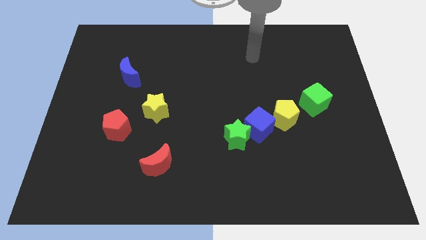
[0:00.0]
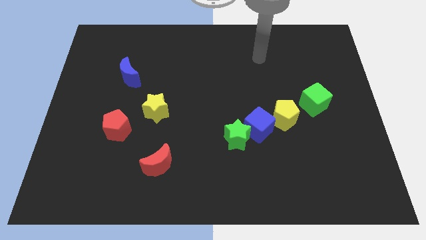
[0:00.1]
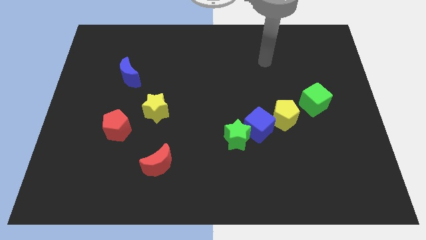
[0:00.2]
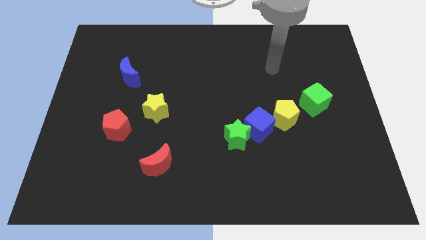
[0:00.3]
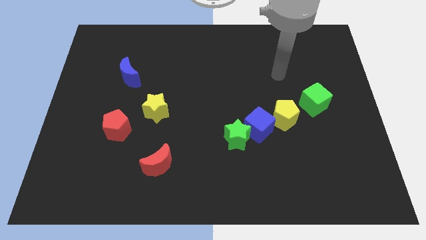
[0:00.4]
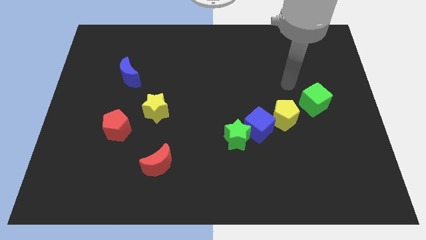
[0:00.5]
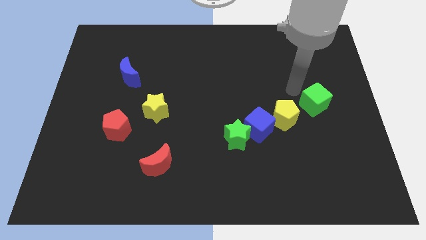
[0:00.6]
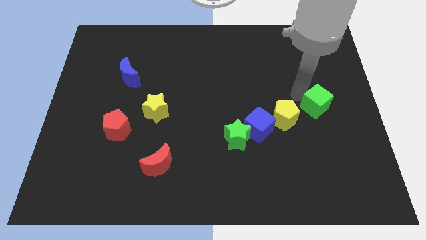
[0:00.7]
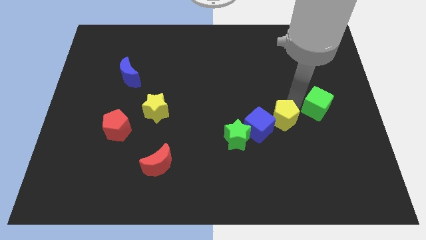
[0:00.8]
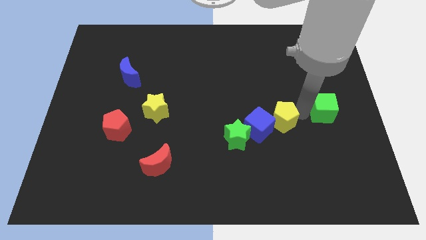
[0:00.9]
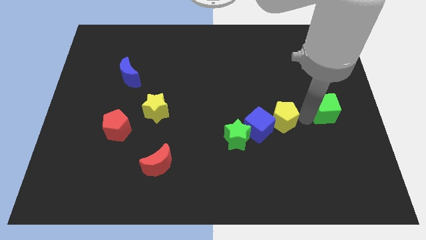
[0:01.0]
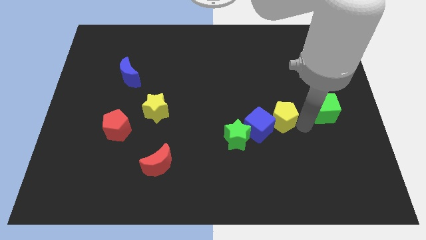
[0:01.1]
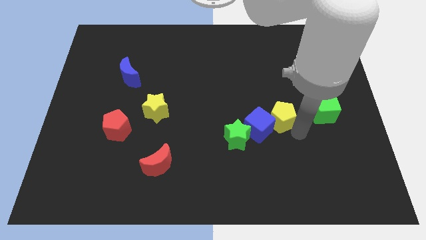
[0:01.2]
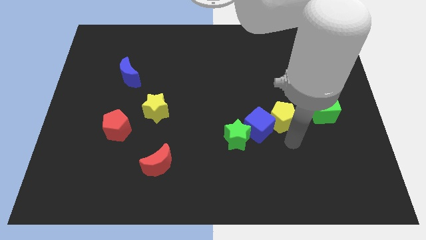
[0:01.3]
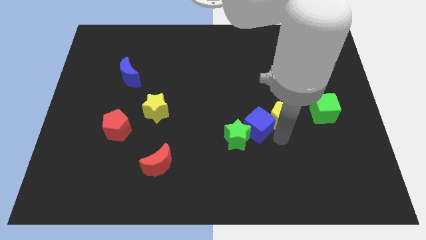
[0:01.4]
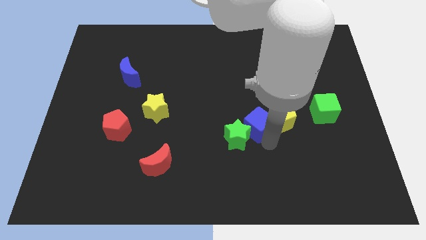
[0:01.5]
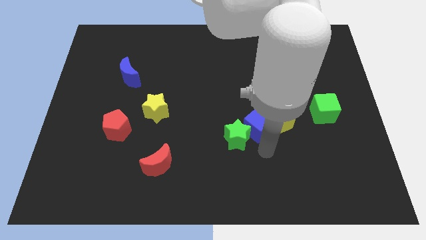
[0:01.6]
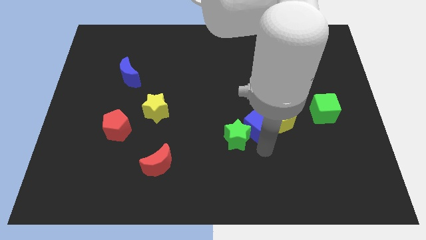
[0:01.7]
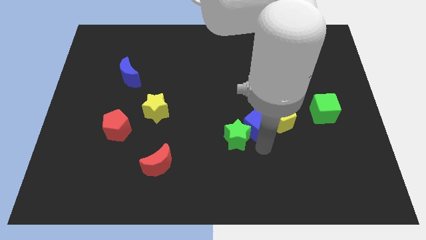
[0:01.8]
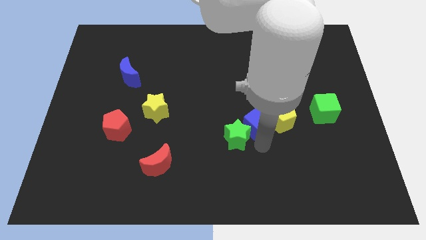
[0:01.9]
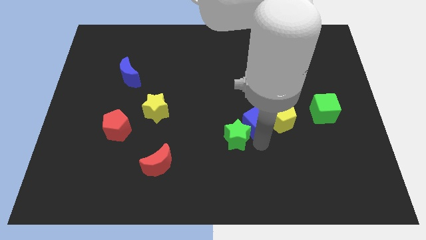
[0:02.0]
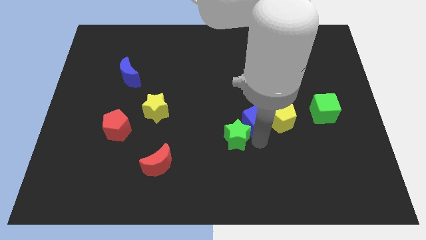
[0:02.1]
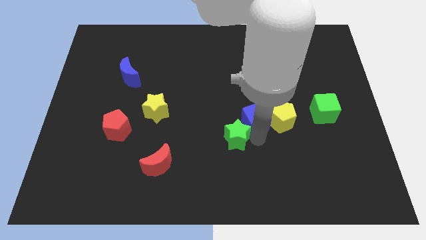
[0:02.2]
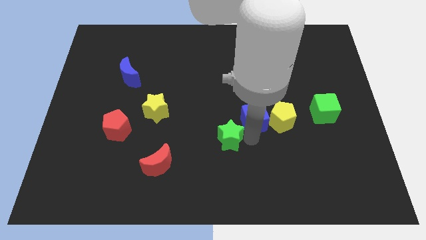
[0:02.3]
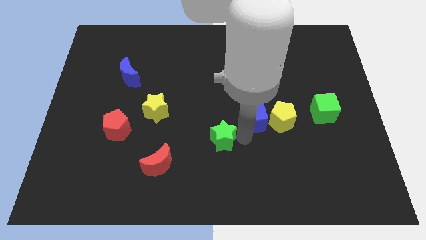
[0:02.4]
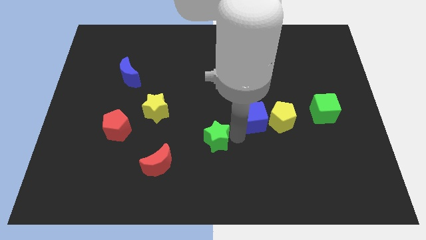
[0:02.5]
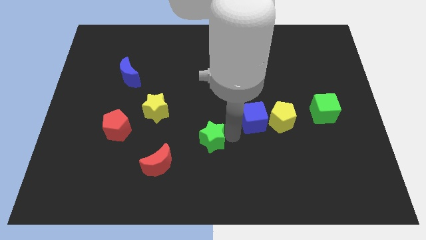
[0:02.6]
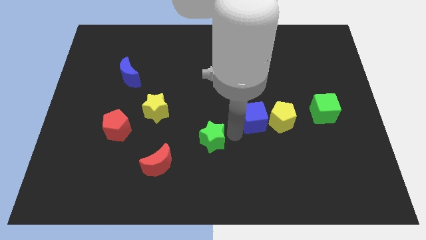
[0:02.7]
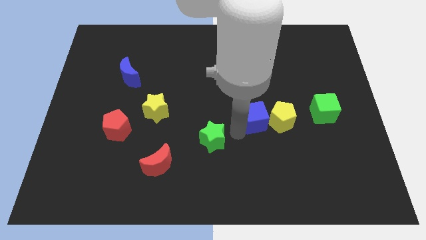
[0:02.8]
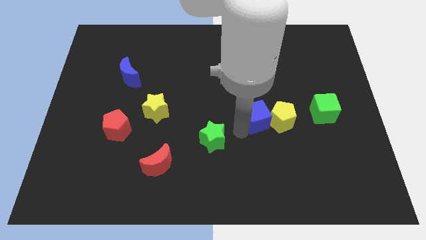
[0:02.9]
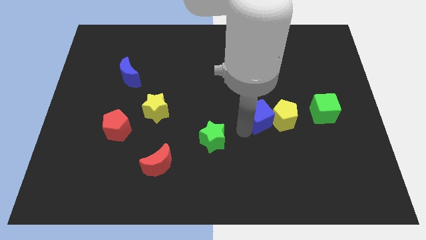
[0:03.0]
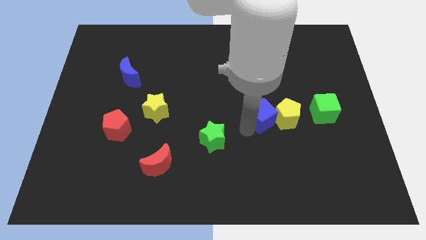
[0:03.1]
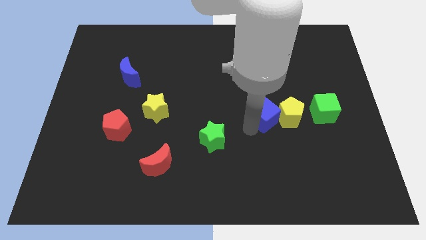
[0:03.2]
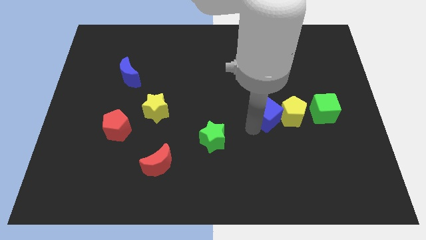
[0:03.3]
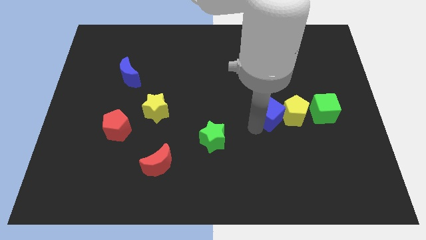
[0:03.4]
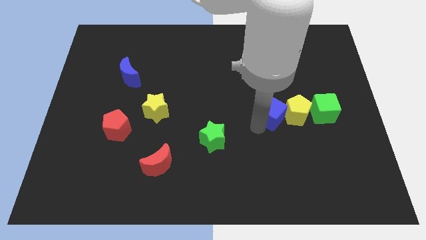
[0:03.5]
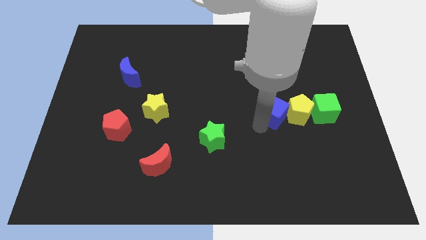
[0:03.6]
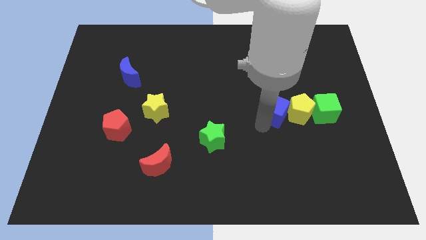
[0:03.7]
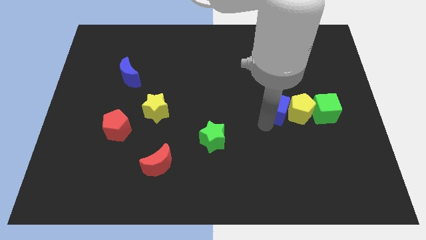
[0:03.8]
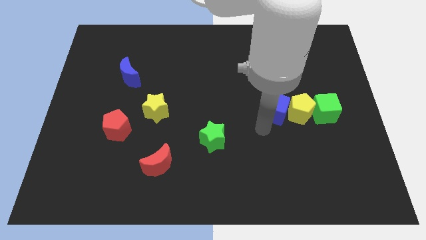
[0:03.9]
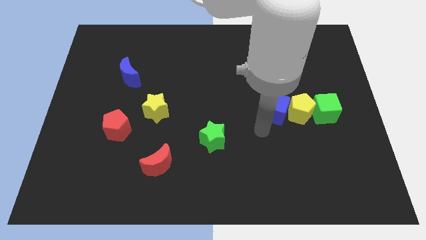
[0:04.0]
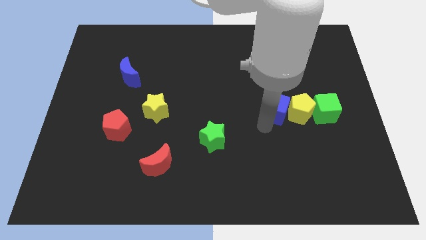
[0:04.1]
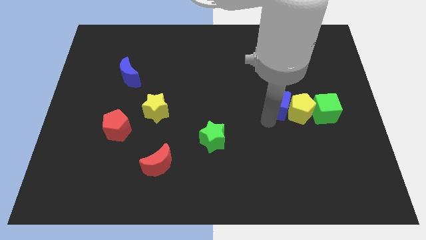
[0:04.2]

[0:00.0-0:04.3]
slide the blue cube up and to the right diagonally a little bit

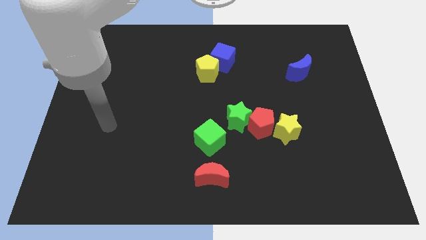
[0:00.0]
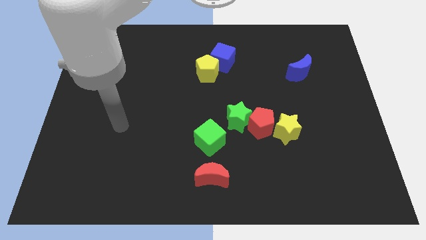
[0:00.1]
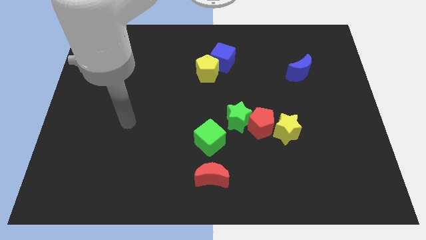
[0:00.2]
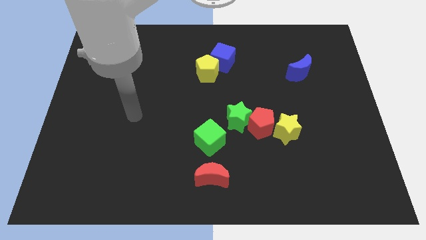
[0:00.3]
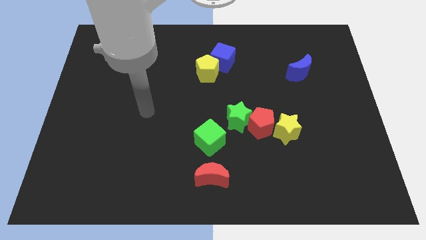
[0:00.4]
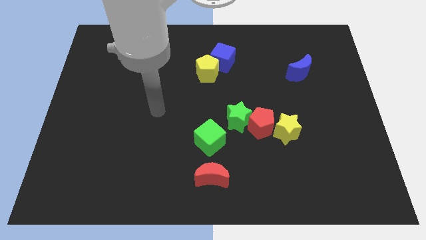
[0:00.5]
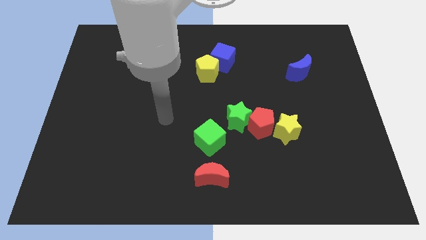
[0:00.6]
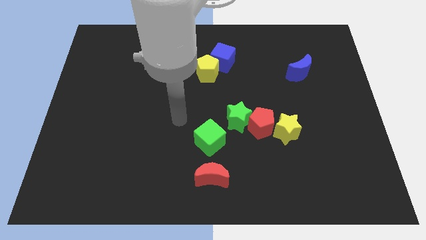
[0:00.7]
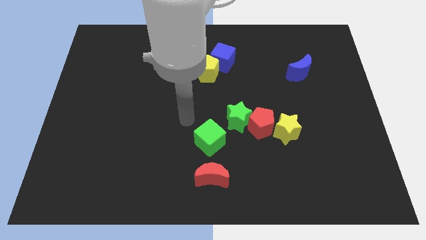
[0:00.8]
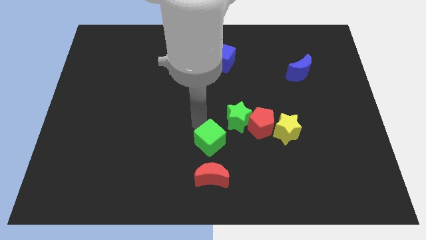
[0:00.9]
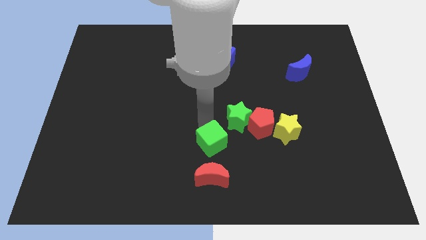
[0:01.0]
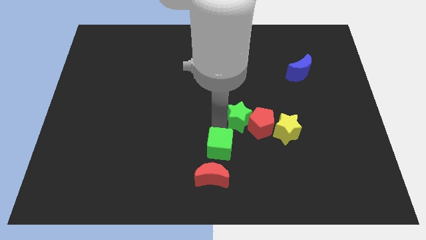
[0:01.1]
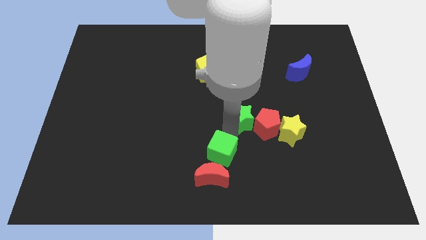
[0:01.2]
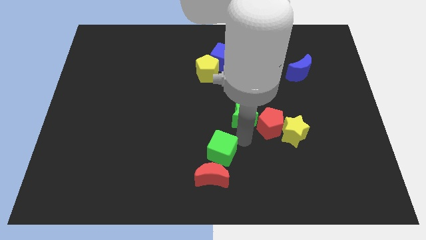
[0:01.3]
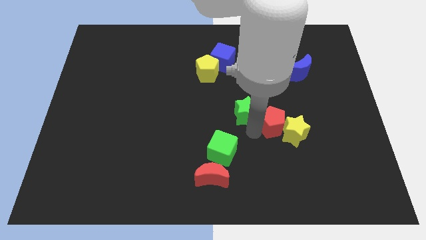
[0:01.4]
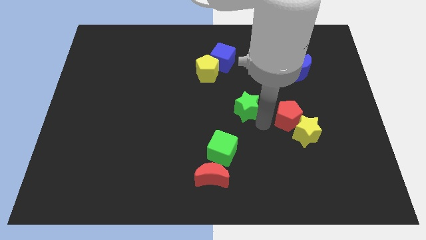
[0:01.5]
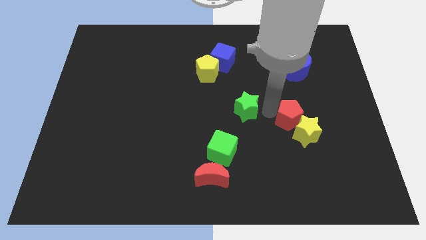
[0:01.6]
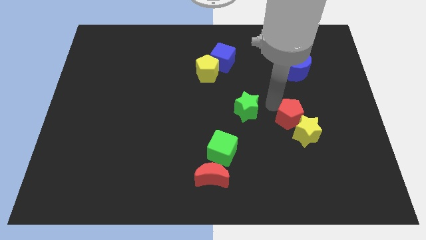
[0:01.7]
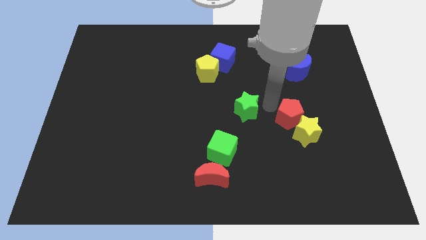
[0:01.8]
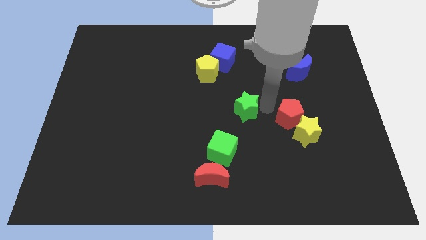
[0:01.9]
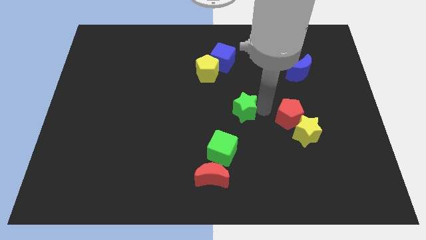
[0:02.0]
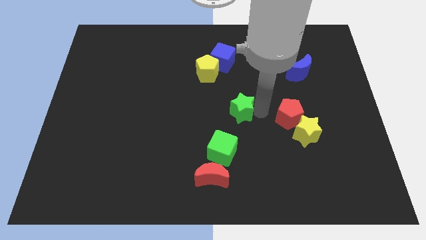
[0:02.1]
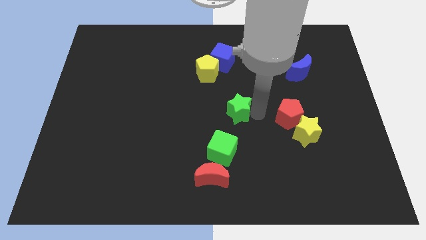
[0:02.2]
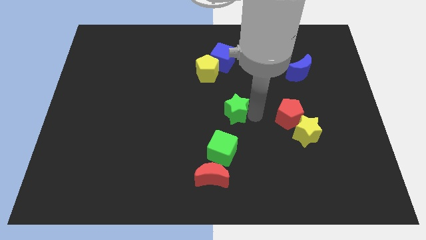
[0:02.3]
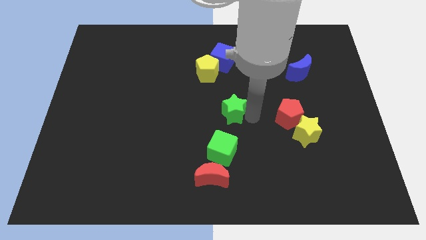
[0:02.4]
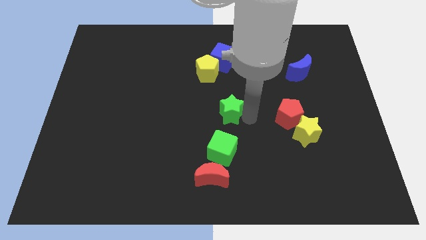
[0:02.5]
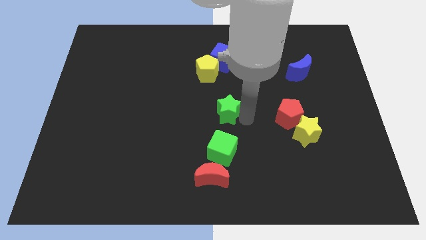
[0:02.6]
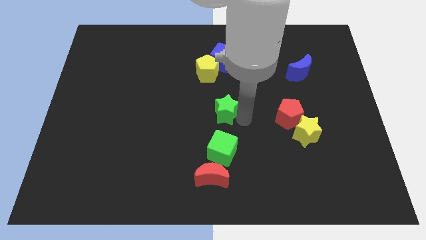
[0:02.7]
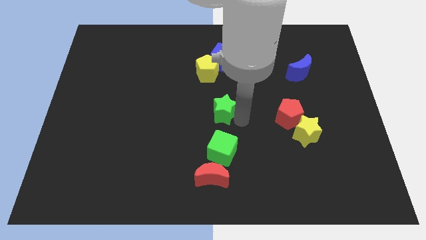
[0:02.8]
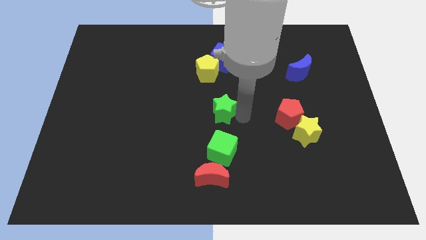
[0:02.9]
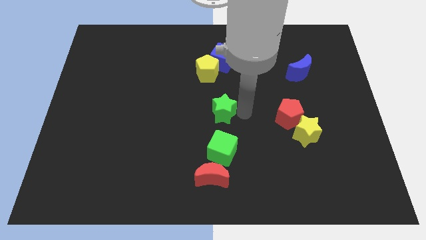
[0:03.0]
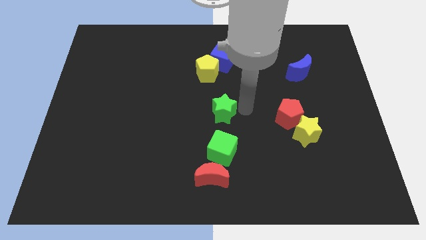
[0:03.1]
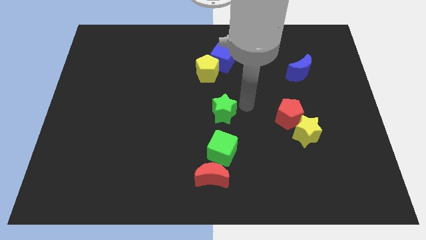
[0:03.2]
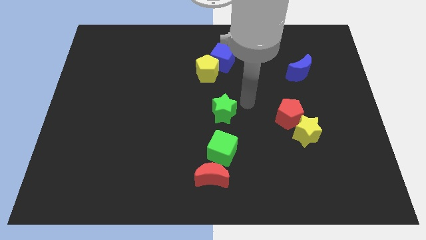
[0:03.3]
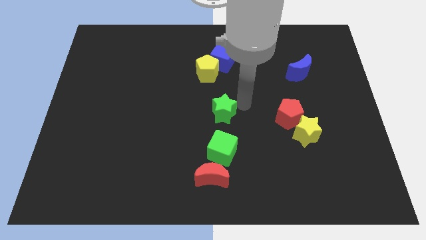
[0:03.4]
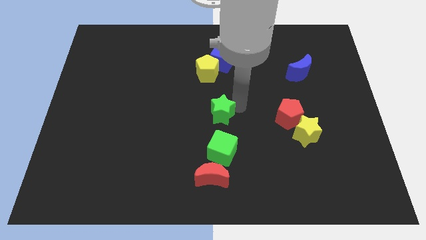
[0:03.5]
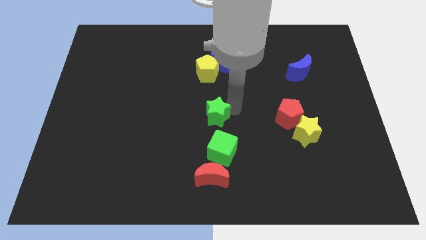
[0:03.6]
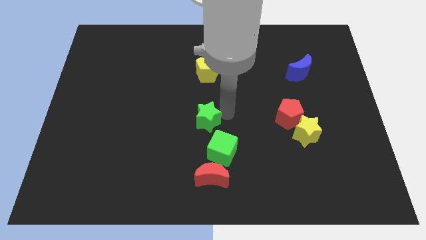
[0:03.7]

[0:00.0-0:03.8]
push the green star left slightly
